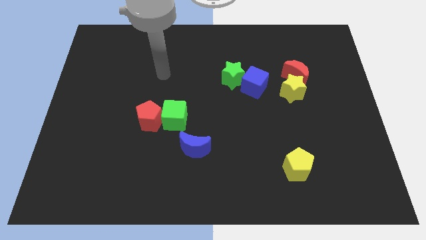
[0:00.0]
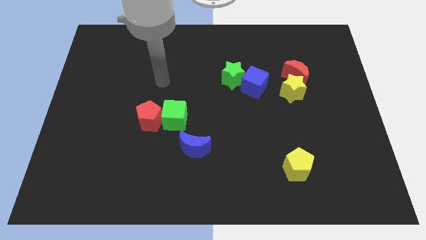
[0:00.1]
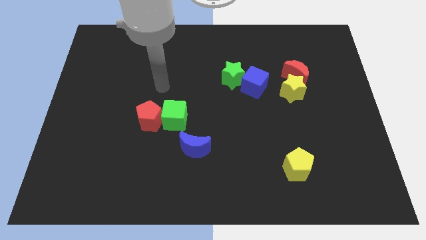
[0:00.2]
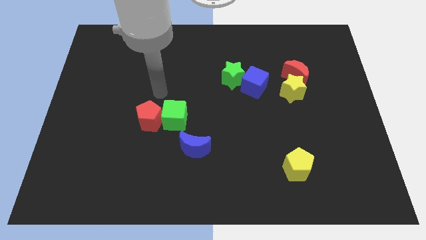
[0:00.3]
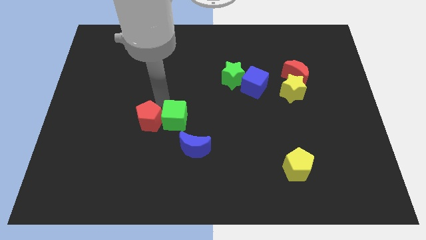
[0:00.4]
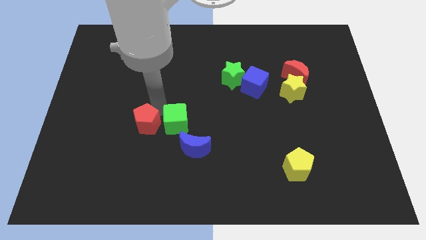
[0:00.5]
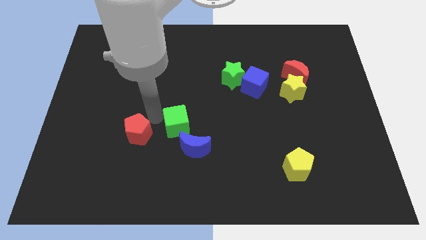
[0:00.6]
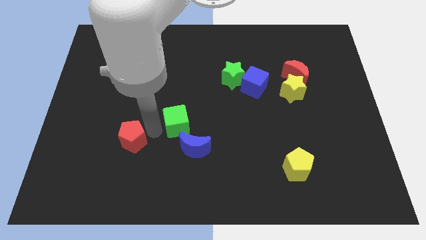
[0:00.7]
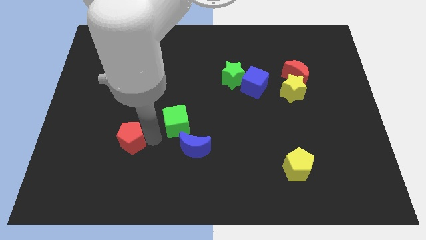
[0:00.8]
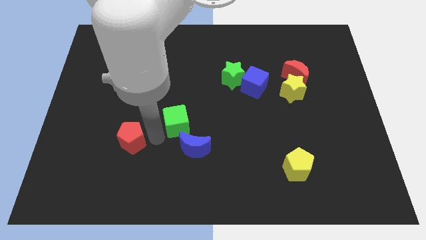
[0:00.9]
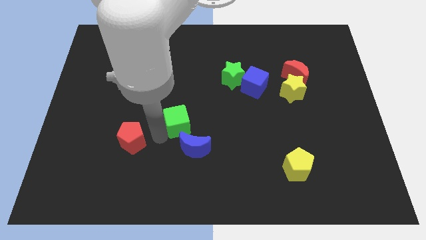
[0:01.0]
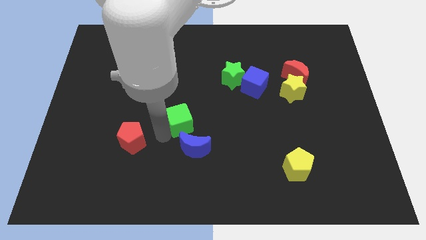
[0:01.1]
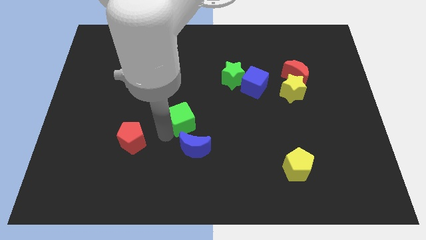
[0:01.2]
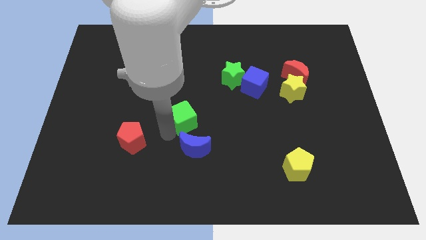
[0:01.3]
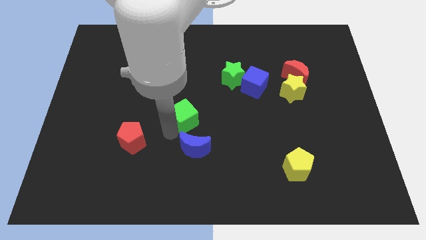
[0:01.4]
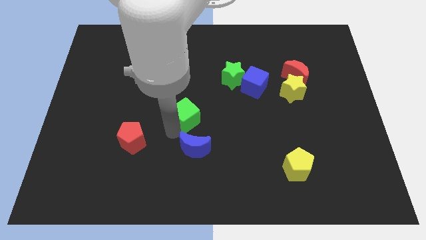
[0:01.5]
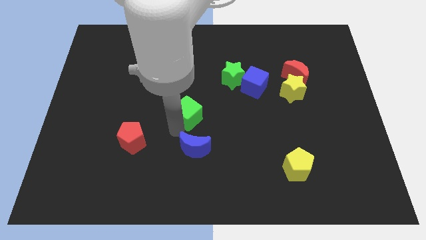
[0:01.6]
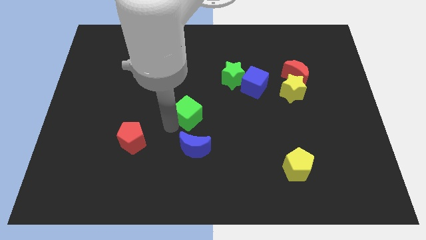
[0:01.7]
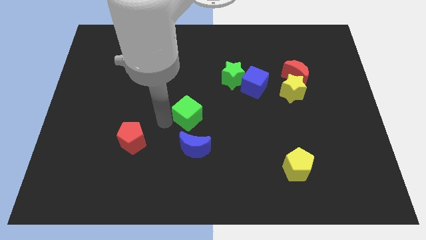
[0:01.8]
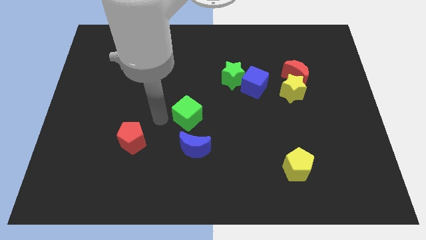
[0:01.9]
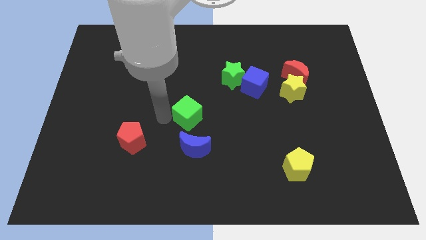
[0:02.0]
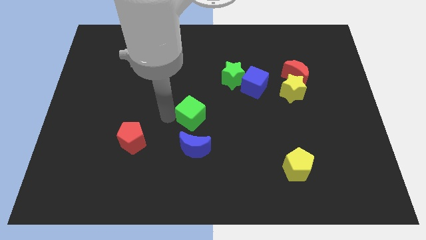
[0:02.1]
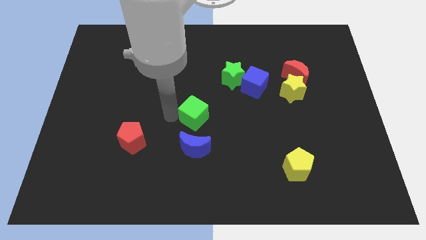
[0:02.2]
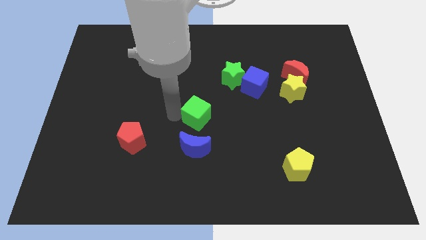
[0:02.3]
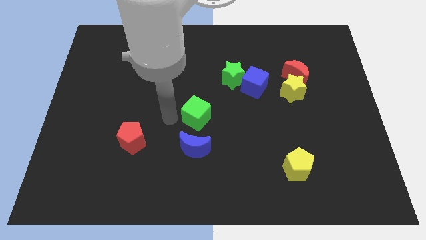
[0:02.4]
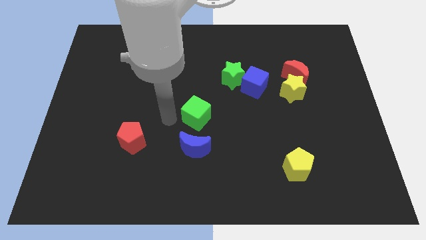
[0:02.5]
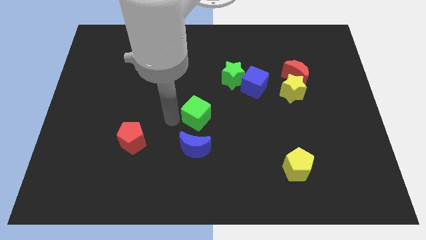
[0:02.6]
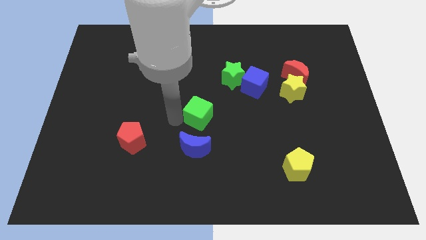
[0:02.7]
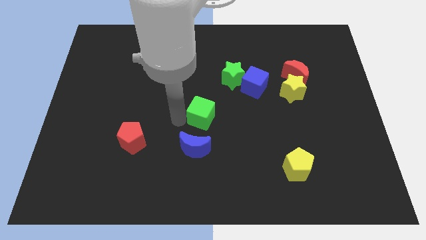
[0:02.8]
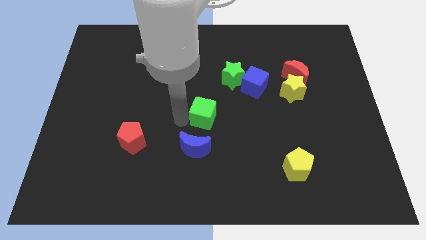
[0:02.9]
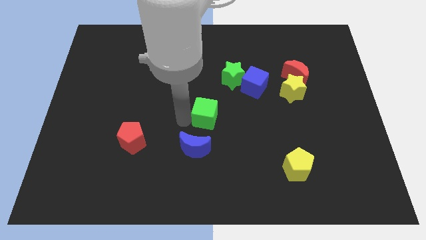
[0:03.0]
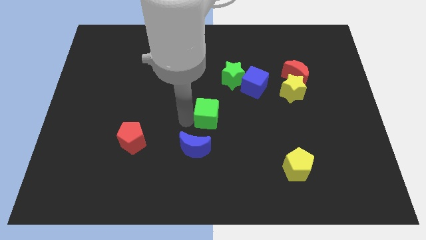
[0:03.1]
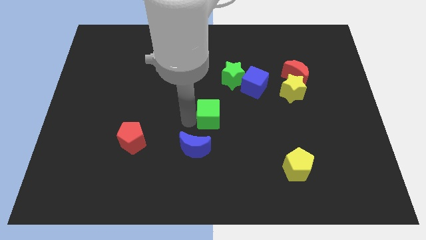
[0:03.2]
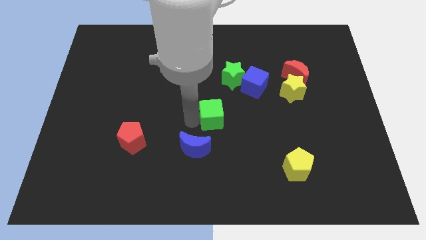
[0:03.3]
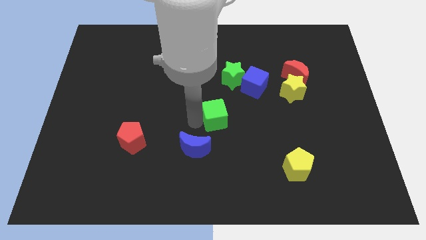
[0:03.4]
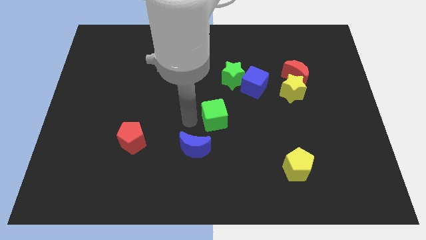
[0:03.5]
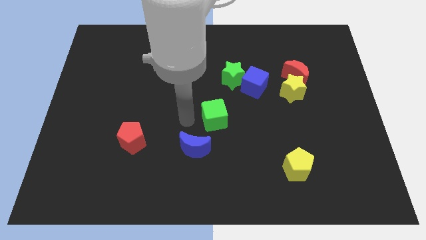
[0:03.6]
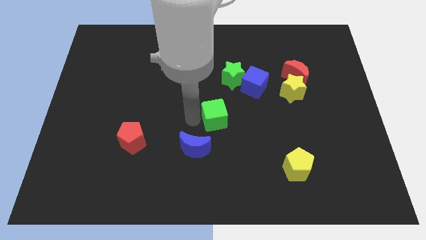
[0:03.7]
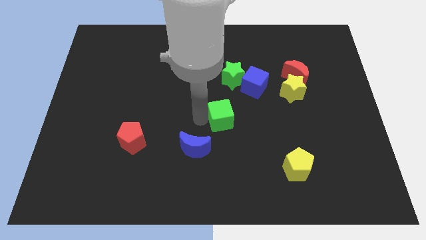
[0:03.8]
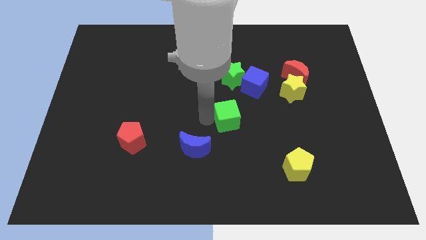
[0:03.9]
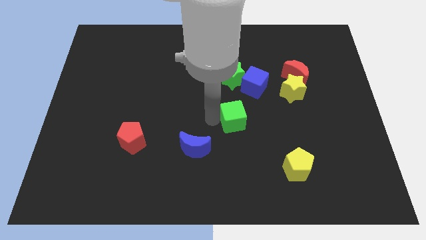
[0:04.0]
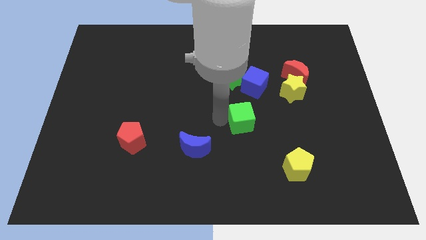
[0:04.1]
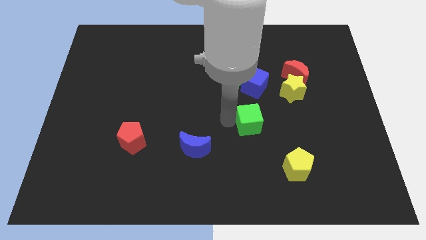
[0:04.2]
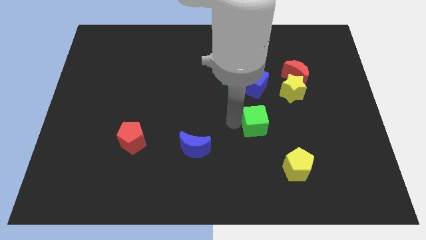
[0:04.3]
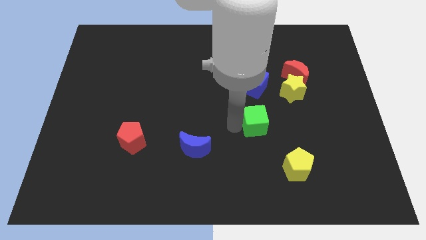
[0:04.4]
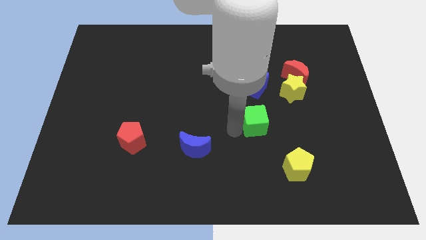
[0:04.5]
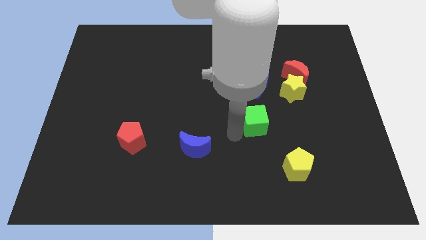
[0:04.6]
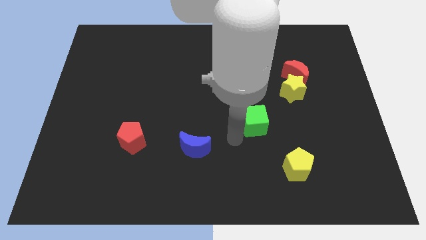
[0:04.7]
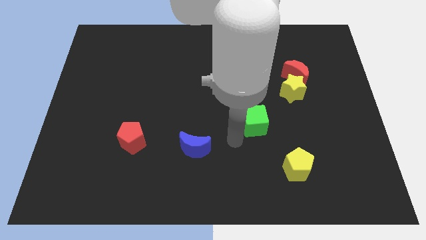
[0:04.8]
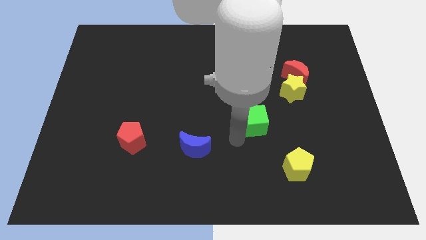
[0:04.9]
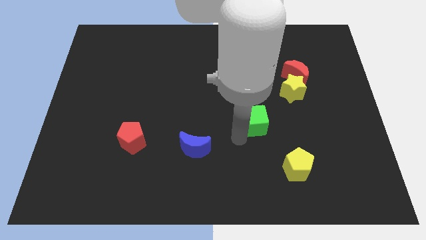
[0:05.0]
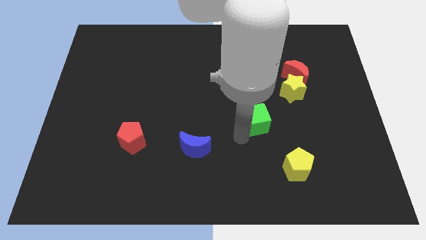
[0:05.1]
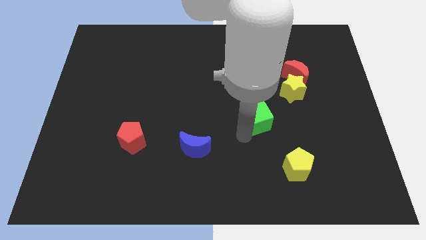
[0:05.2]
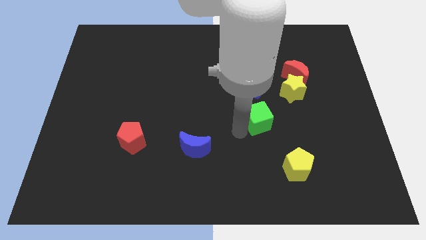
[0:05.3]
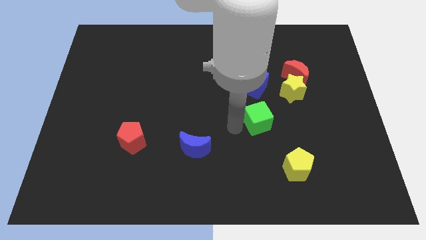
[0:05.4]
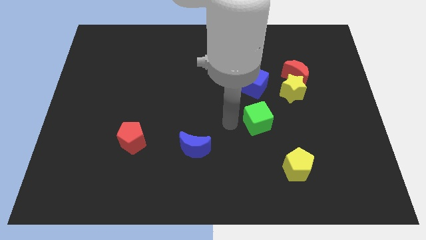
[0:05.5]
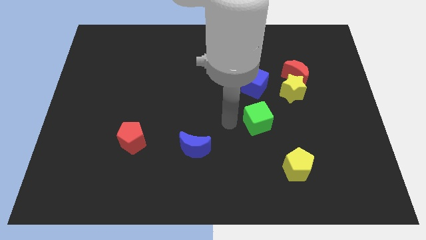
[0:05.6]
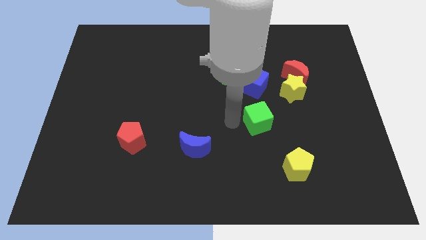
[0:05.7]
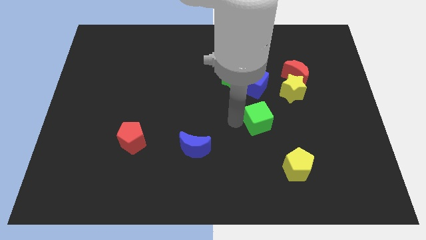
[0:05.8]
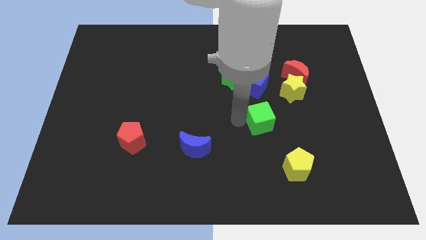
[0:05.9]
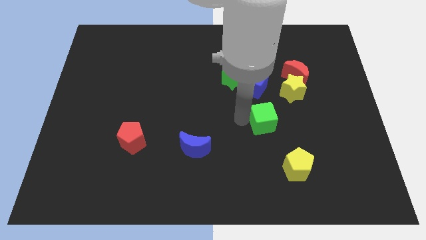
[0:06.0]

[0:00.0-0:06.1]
push the green cube right

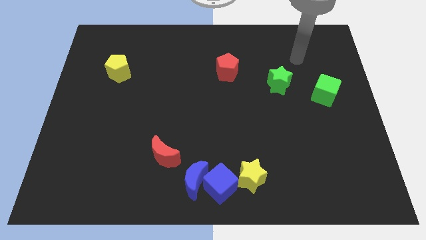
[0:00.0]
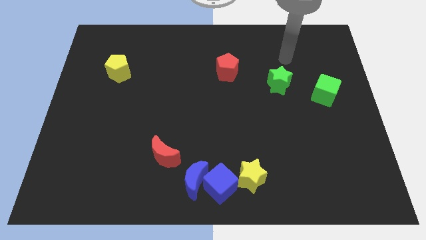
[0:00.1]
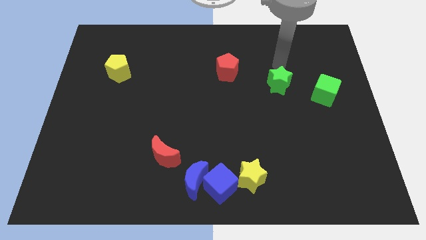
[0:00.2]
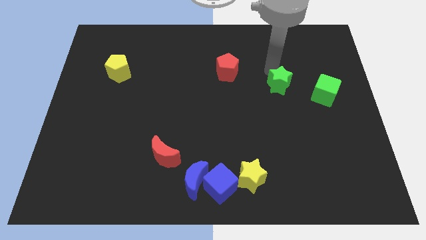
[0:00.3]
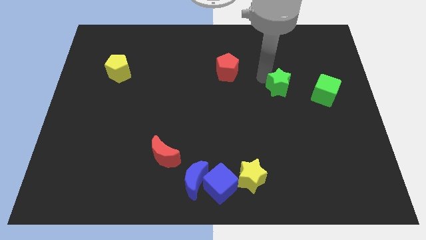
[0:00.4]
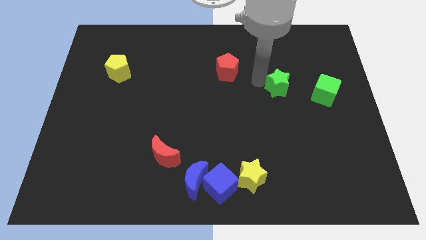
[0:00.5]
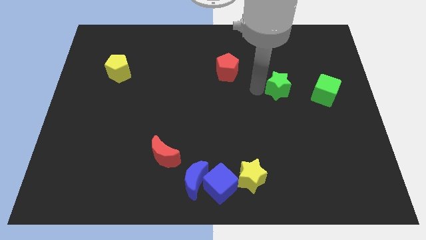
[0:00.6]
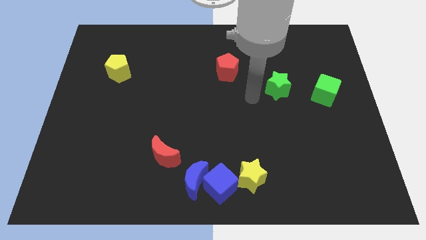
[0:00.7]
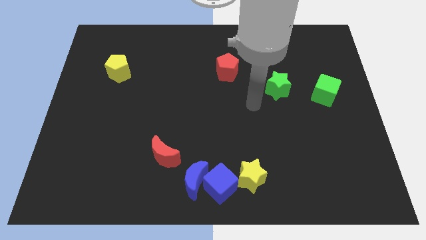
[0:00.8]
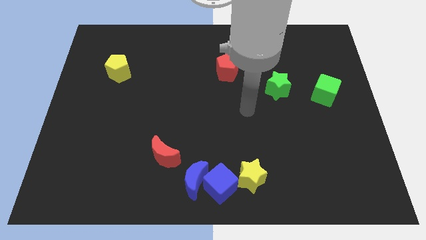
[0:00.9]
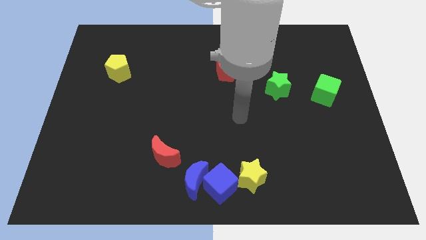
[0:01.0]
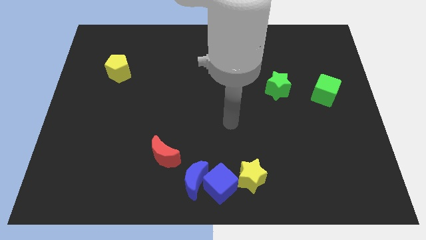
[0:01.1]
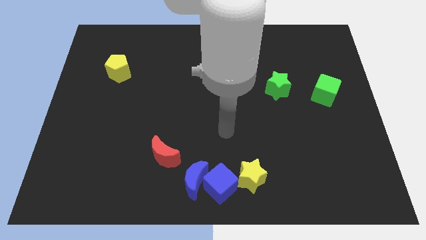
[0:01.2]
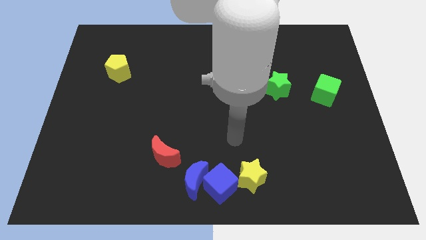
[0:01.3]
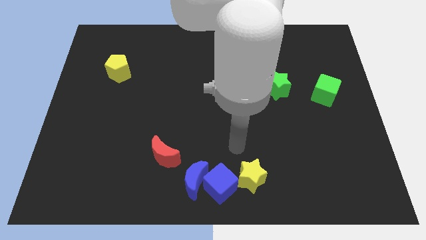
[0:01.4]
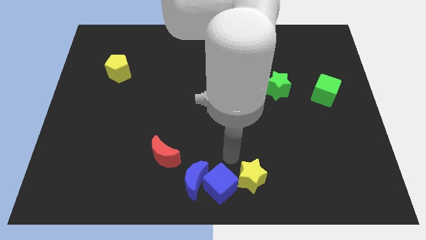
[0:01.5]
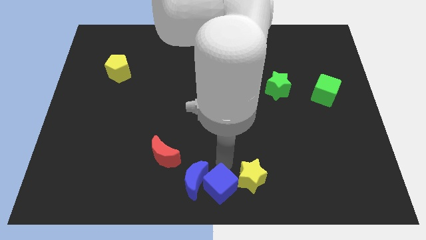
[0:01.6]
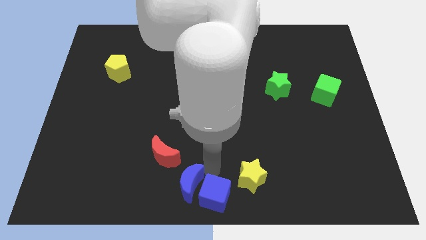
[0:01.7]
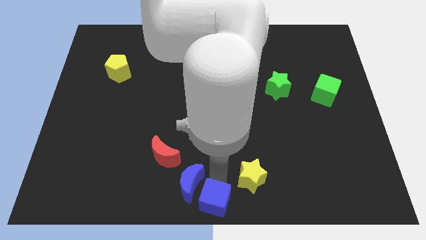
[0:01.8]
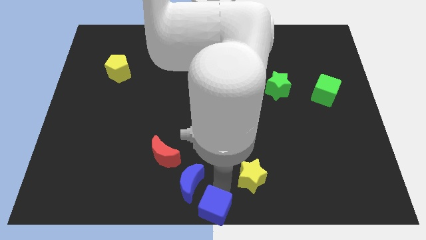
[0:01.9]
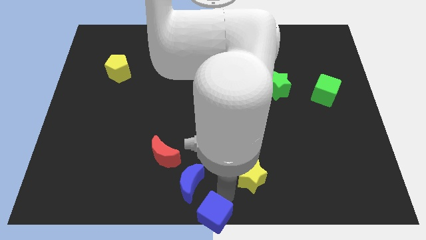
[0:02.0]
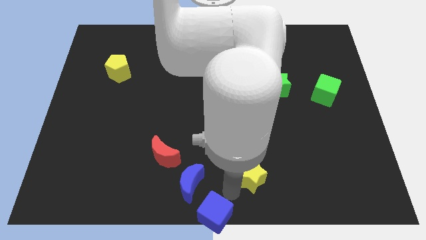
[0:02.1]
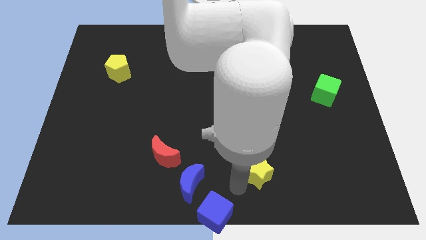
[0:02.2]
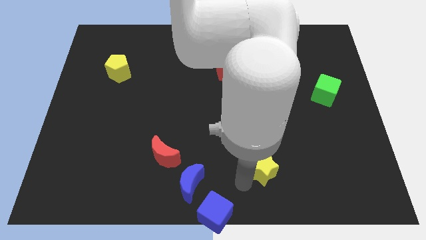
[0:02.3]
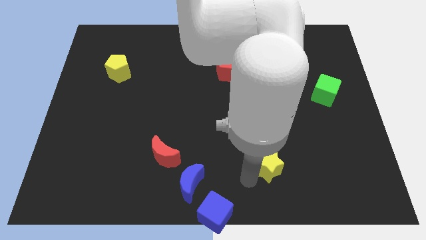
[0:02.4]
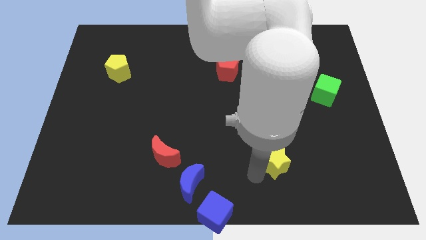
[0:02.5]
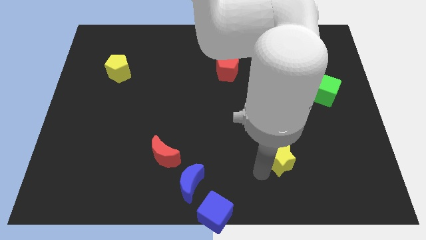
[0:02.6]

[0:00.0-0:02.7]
push the yellow star up and then to the right a bit
